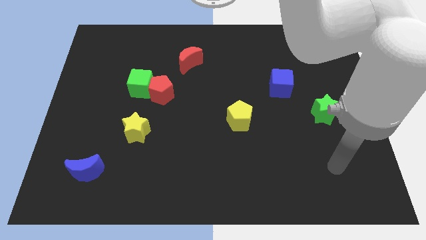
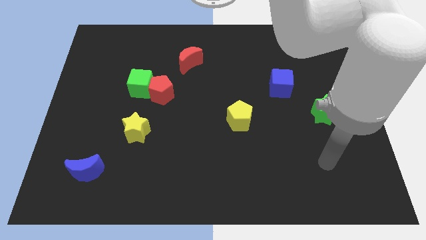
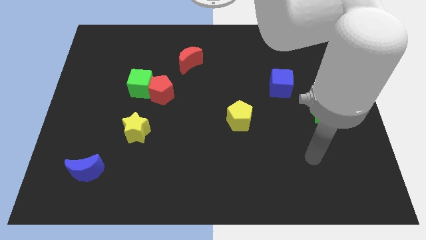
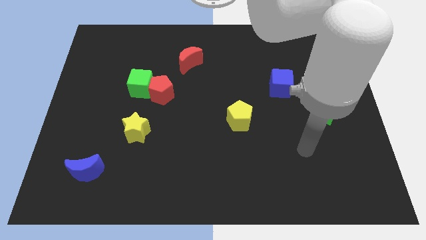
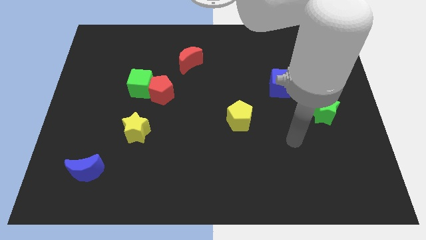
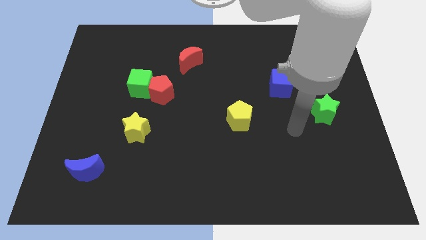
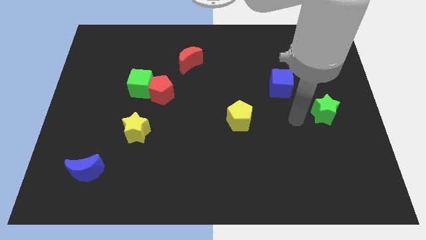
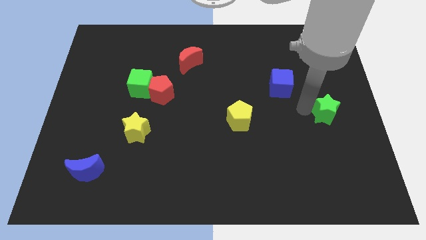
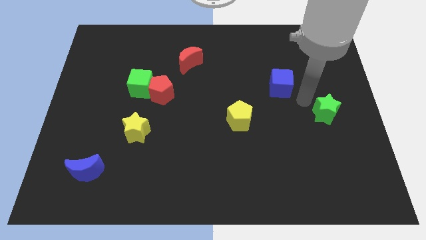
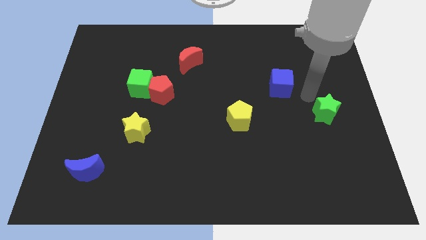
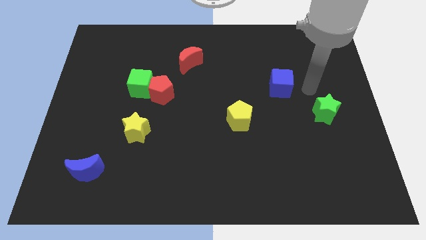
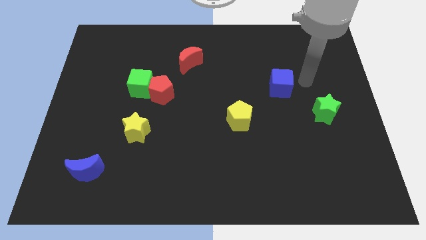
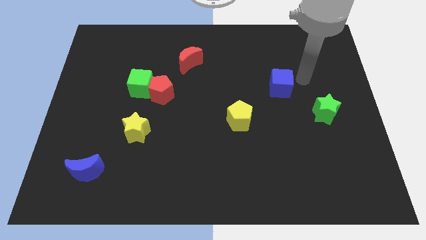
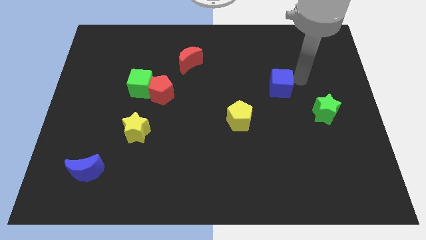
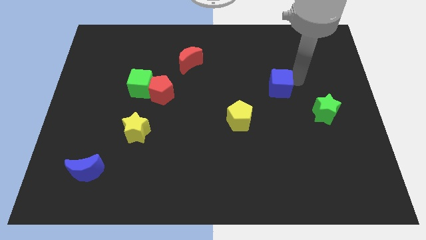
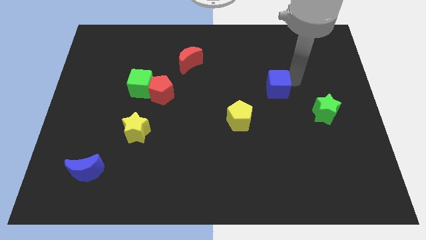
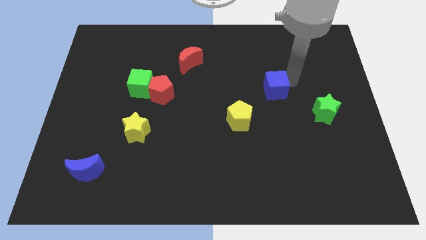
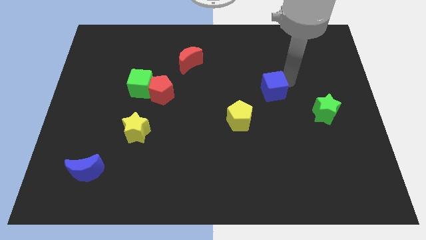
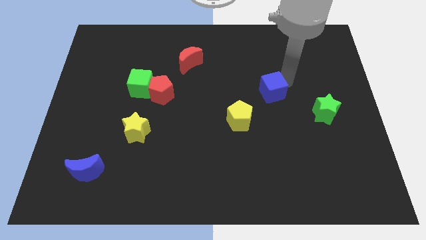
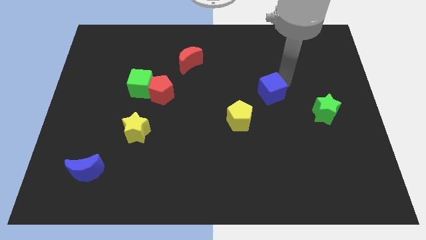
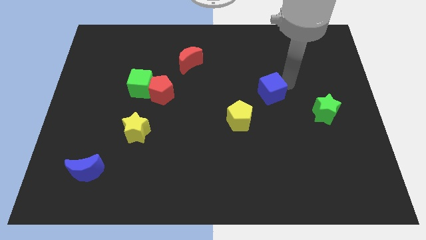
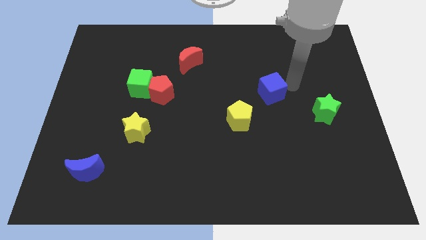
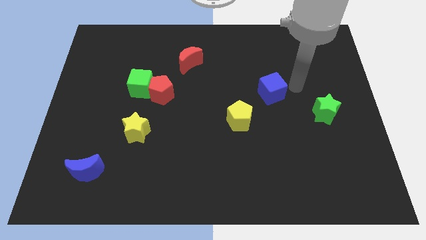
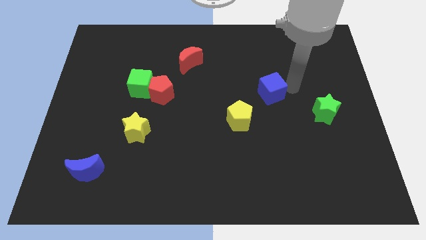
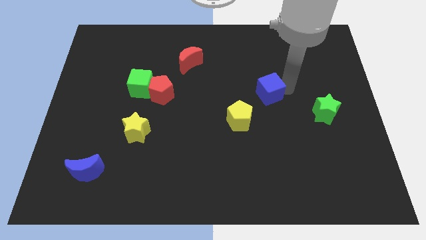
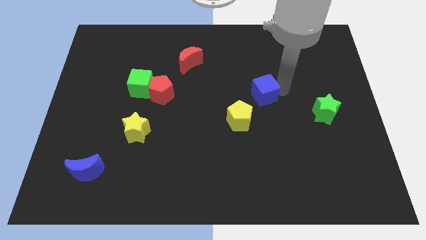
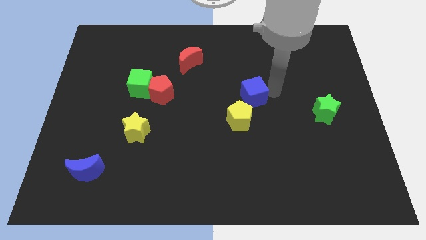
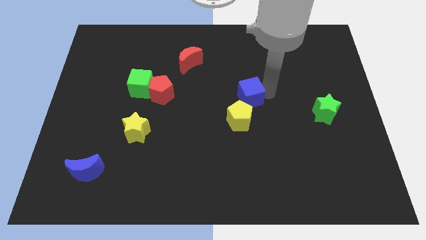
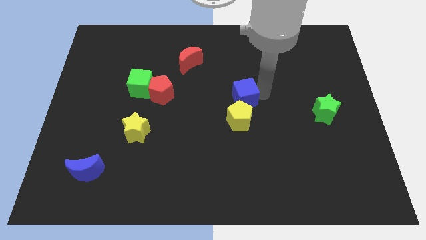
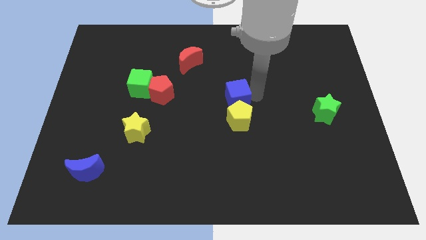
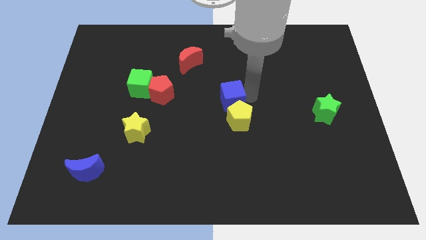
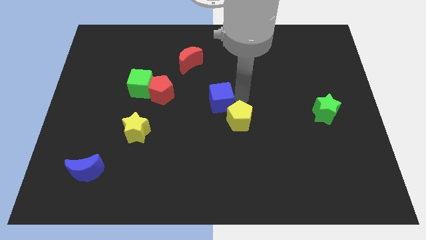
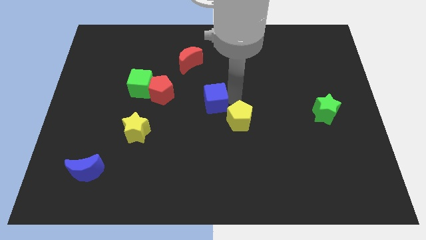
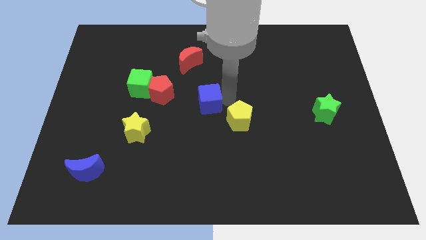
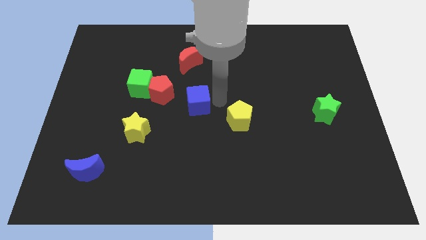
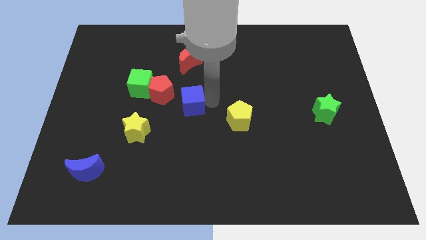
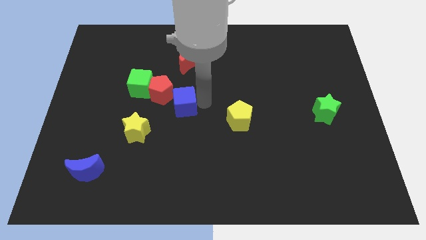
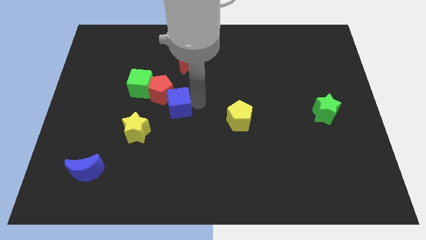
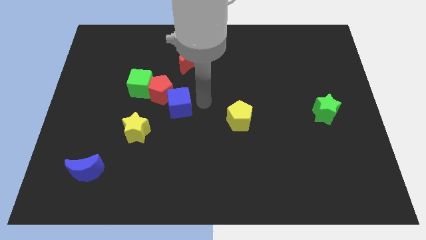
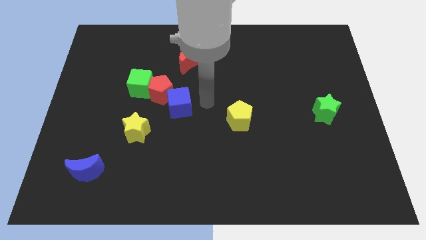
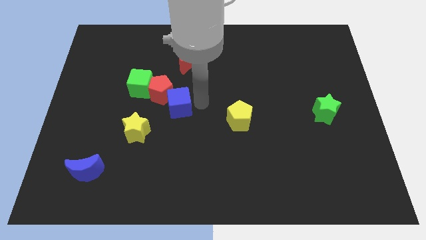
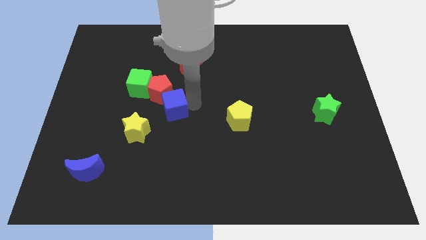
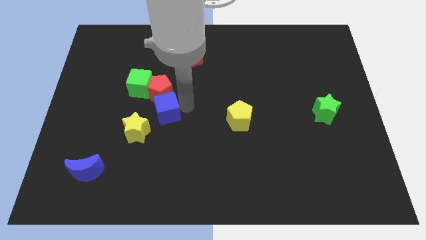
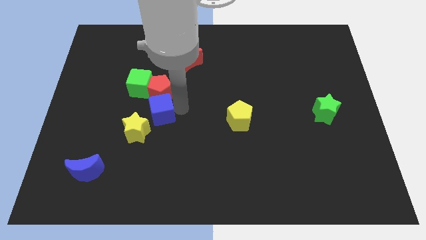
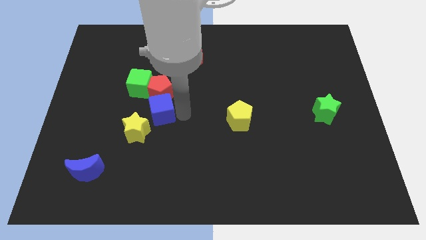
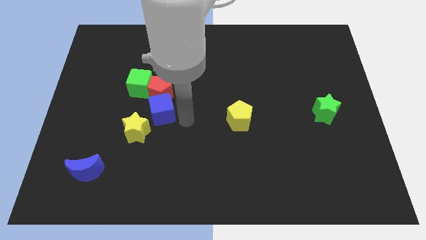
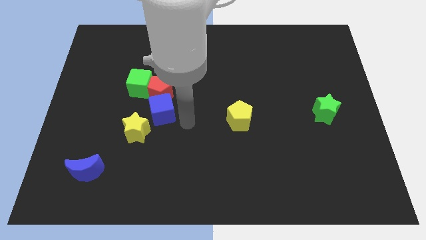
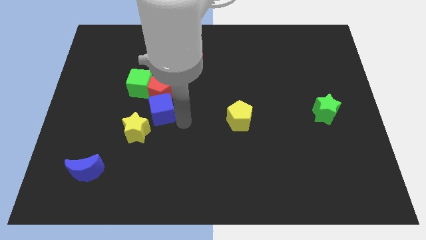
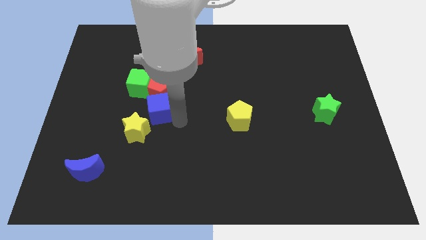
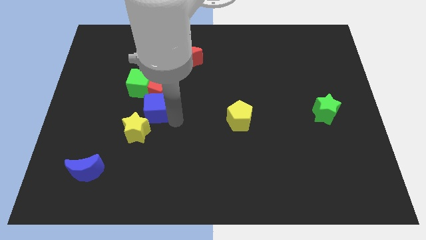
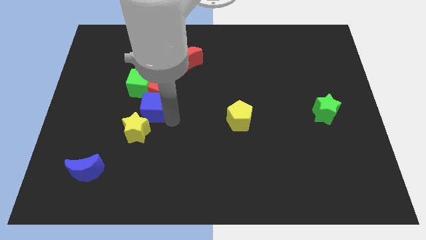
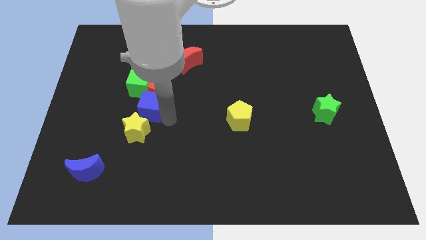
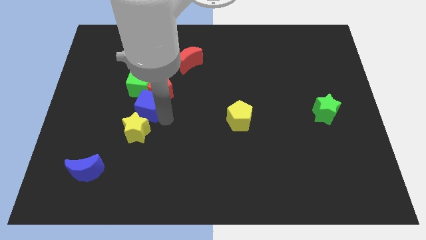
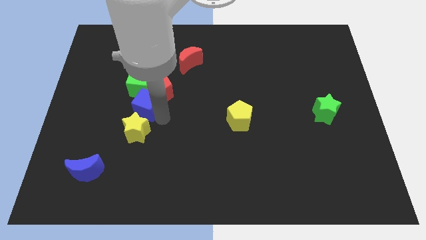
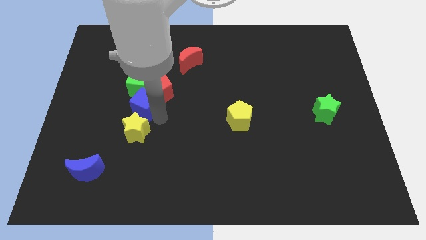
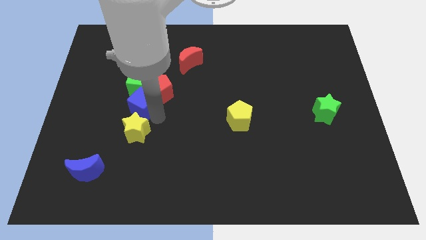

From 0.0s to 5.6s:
put the blue cube to the left of the red pentagon

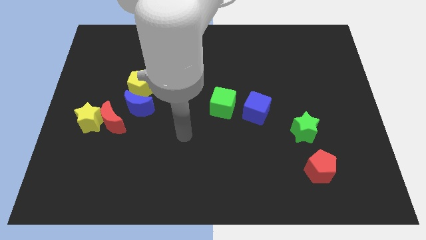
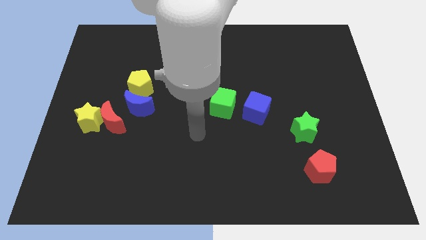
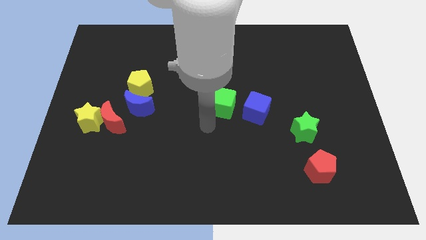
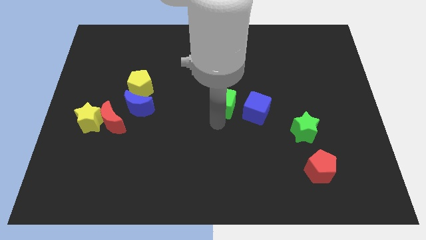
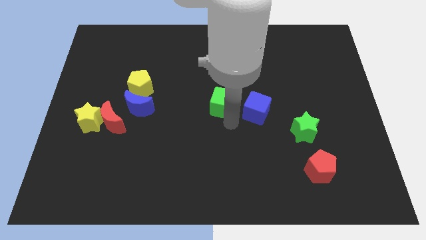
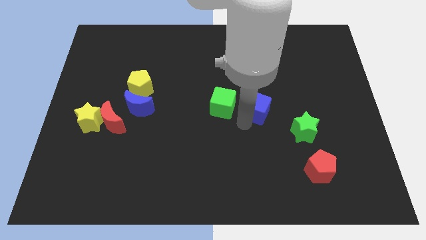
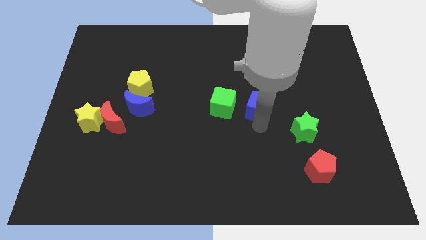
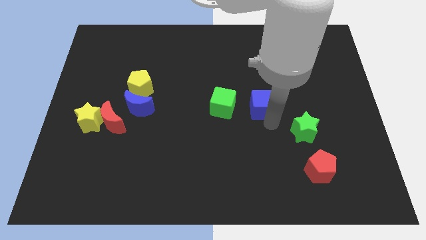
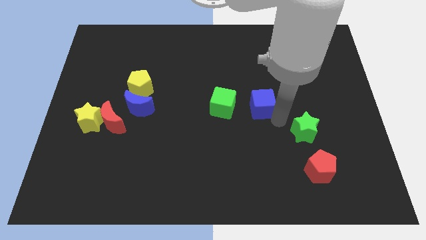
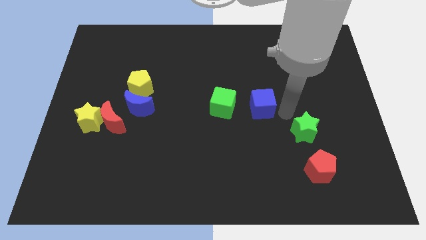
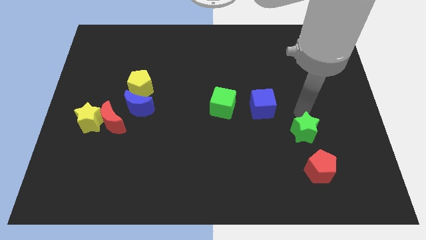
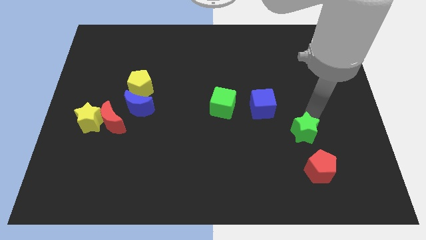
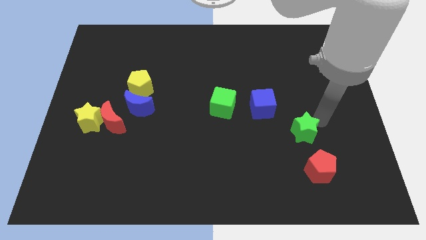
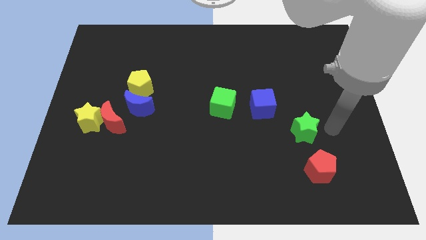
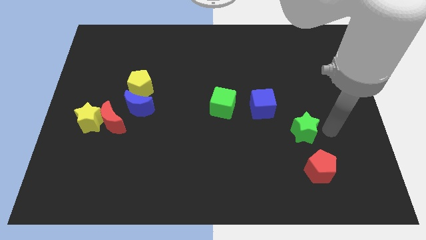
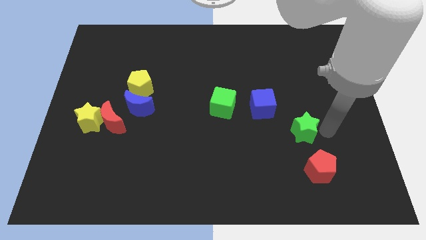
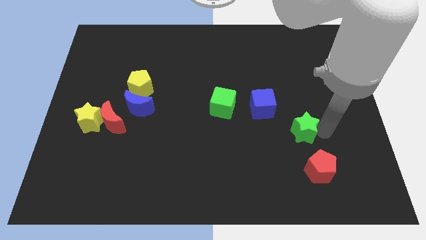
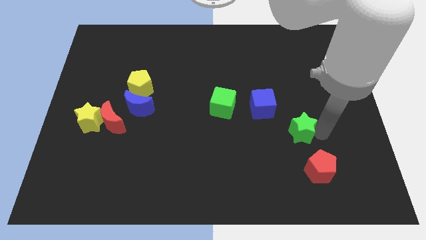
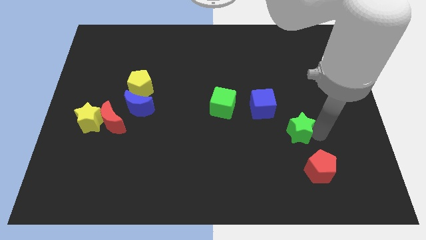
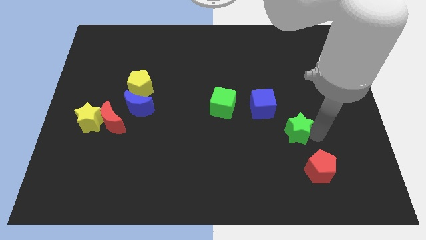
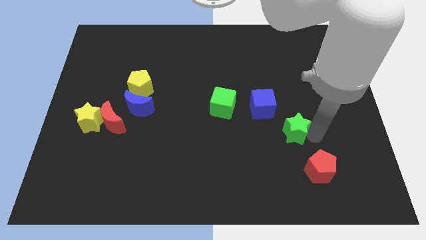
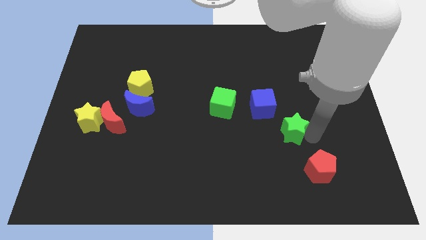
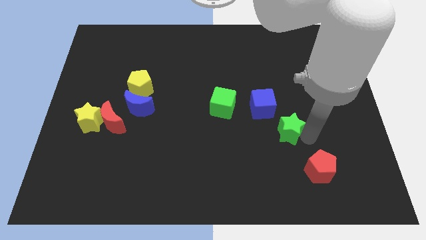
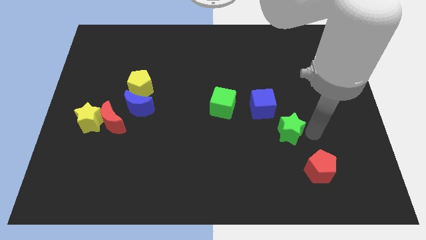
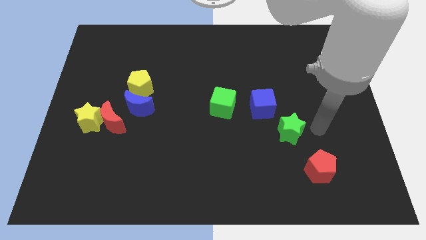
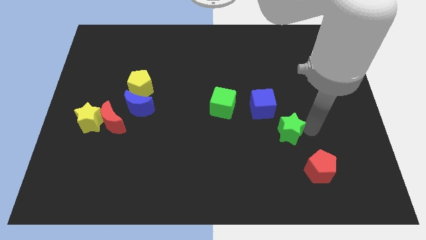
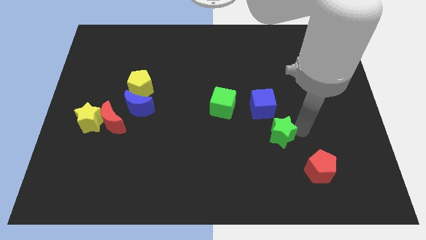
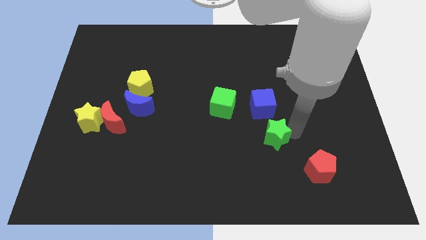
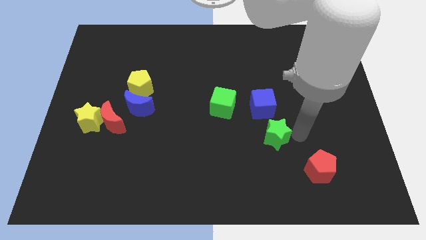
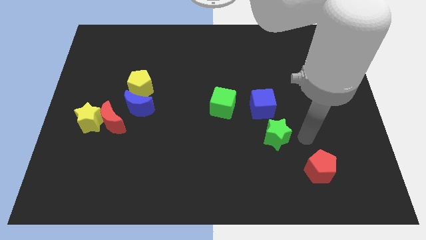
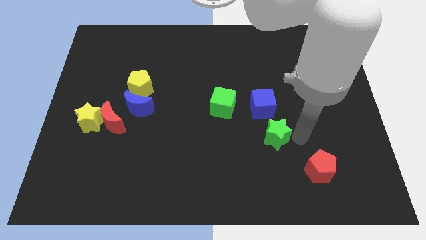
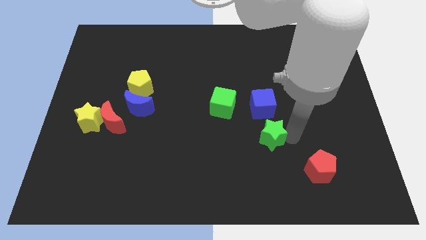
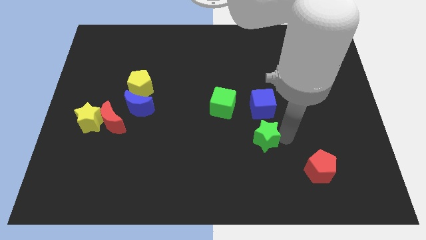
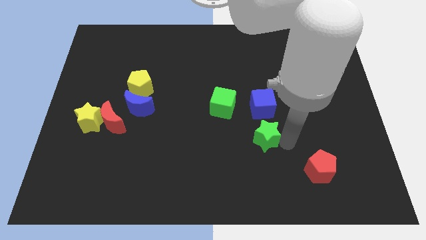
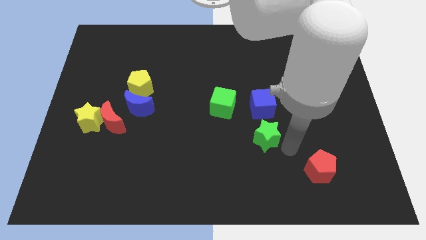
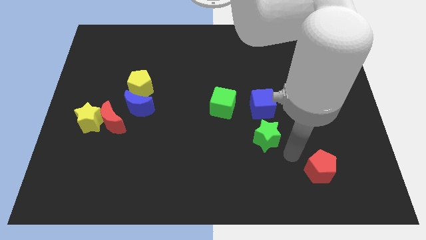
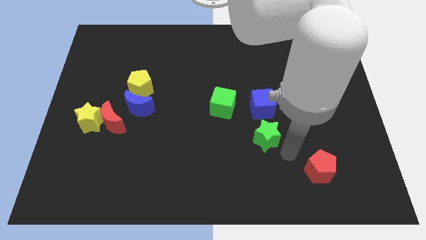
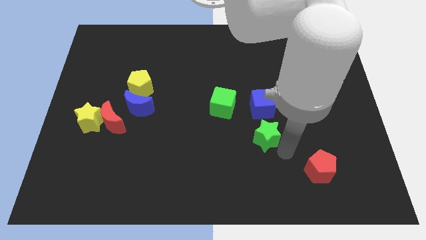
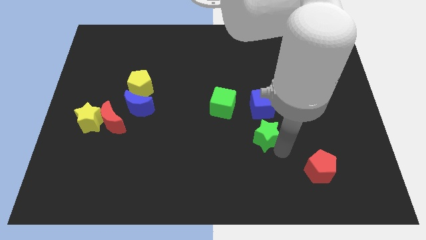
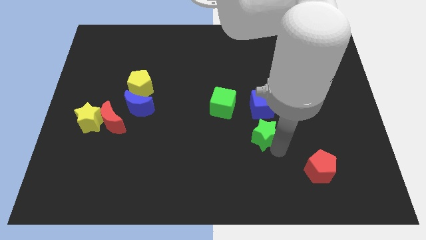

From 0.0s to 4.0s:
move the green star diagonally down and to the right of the green cube
